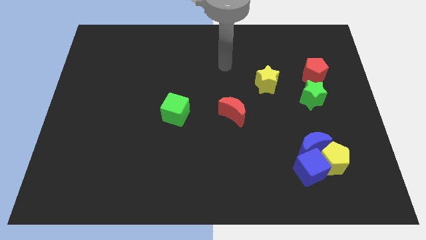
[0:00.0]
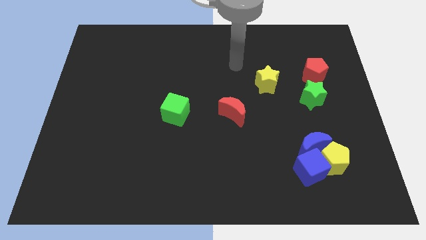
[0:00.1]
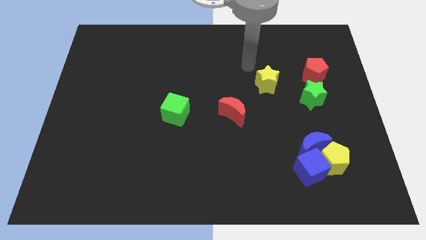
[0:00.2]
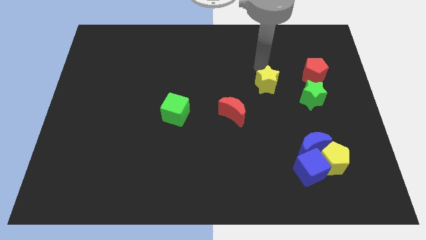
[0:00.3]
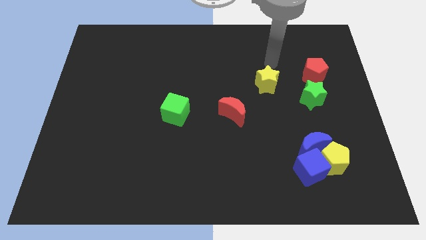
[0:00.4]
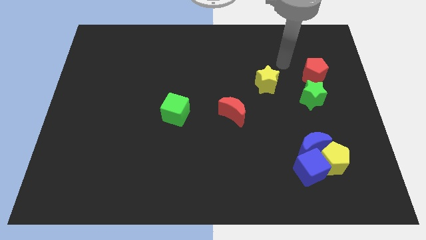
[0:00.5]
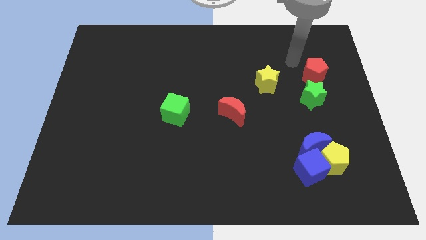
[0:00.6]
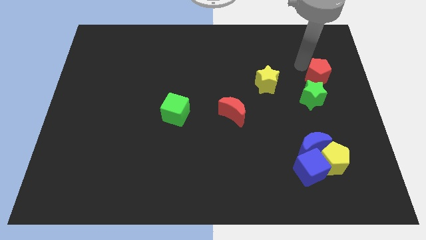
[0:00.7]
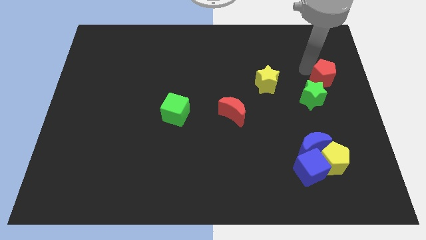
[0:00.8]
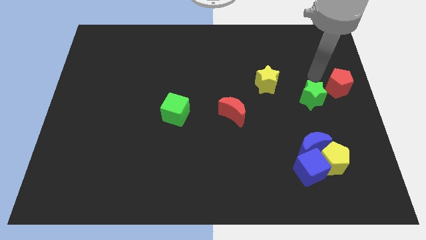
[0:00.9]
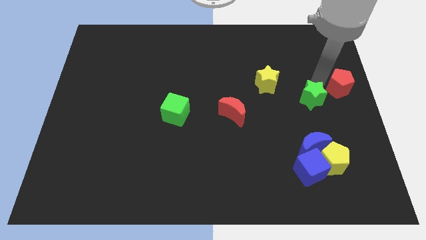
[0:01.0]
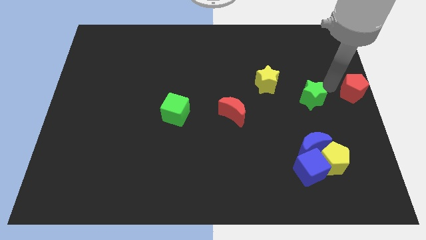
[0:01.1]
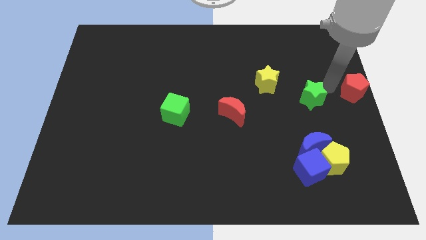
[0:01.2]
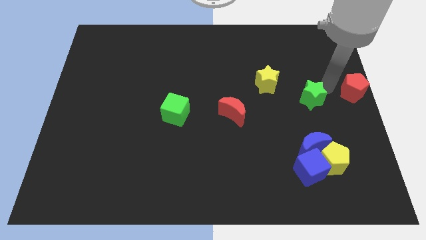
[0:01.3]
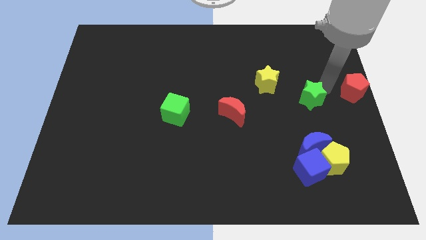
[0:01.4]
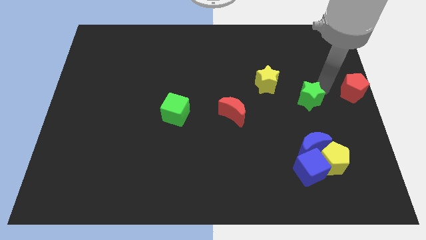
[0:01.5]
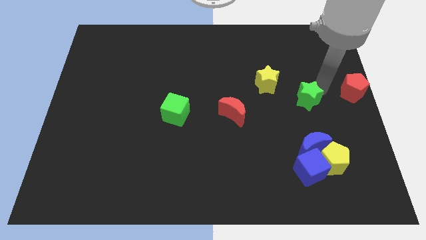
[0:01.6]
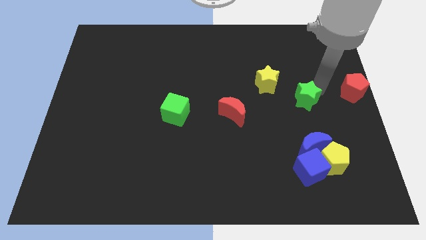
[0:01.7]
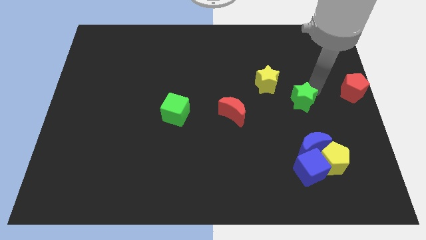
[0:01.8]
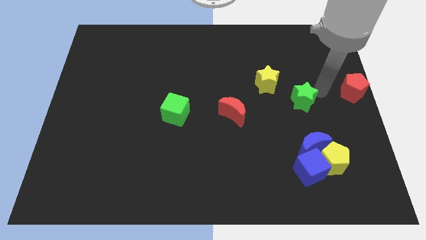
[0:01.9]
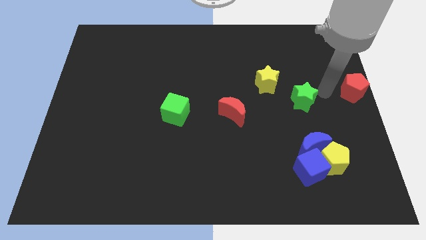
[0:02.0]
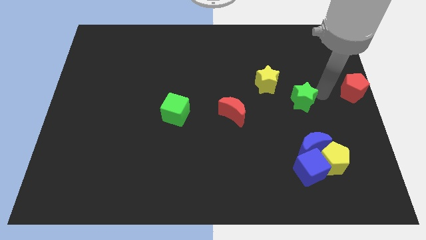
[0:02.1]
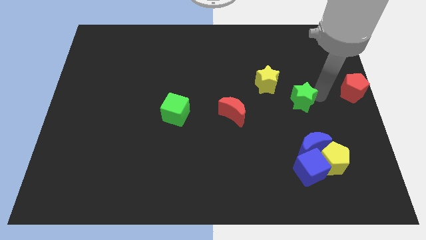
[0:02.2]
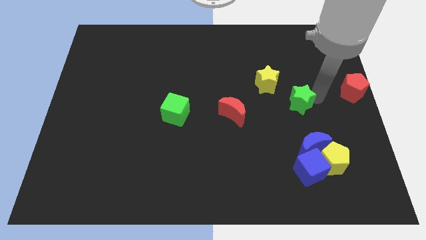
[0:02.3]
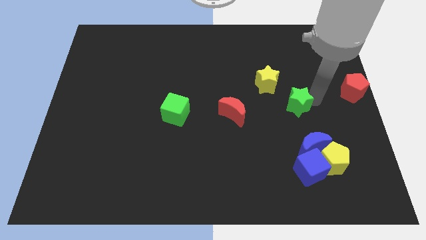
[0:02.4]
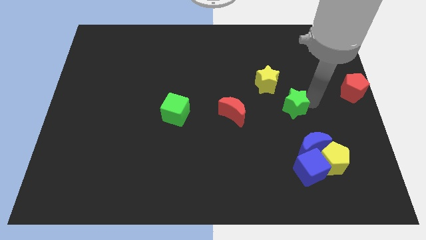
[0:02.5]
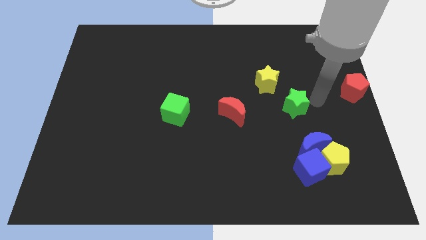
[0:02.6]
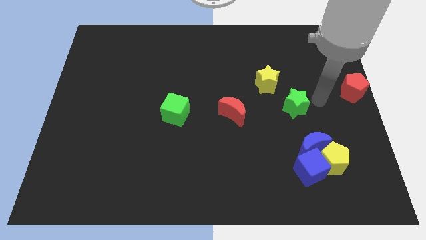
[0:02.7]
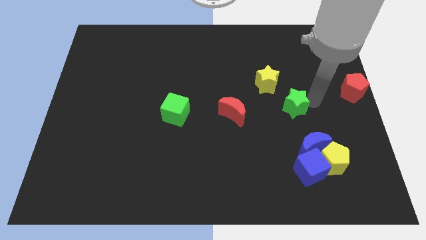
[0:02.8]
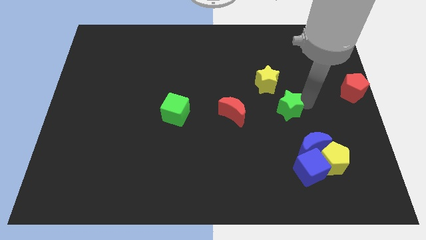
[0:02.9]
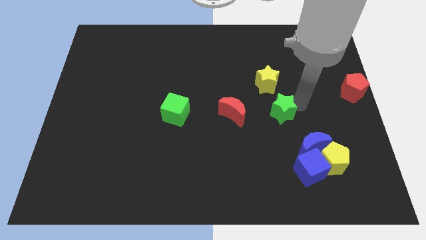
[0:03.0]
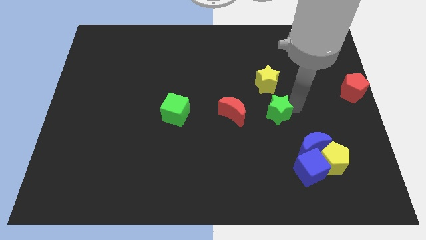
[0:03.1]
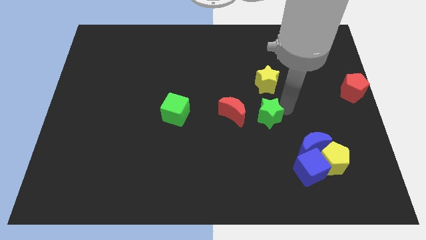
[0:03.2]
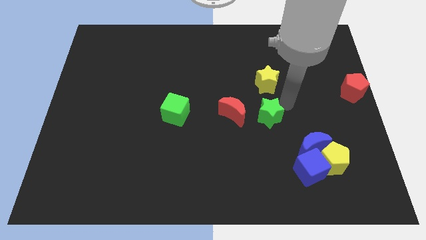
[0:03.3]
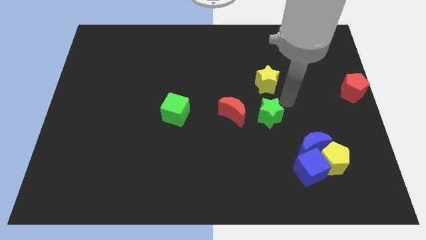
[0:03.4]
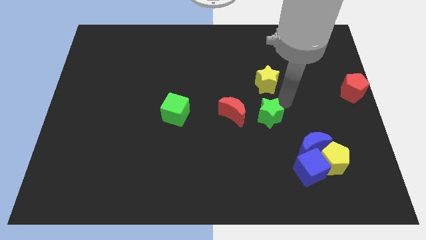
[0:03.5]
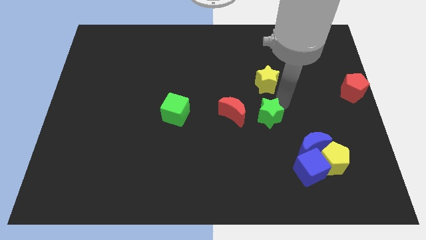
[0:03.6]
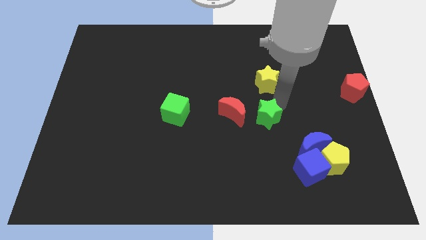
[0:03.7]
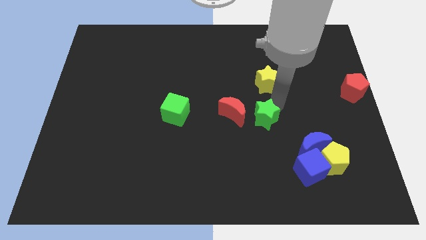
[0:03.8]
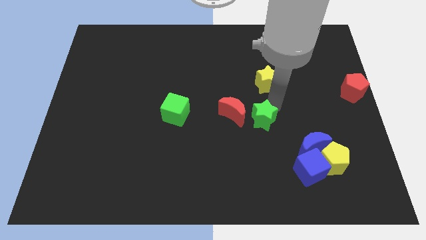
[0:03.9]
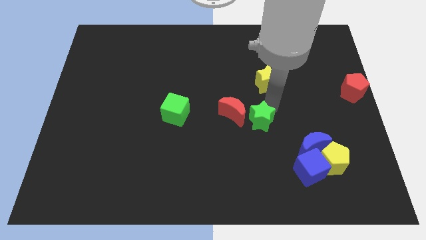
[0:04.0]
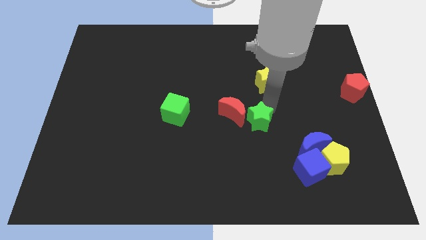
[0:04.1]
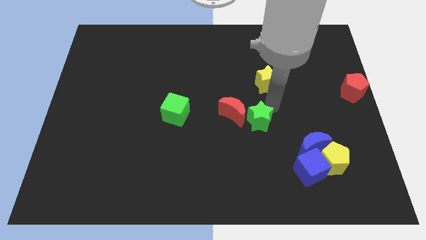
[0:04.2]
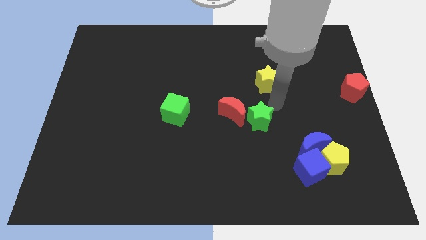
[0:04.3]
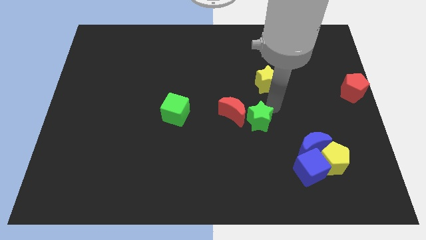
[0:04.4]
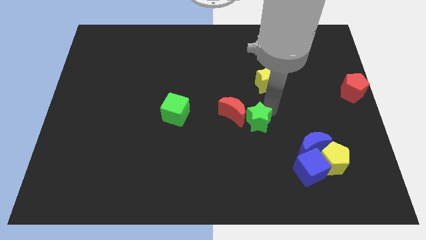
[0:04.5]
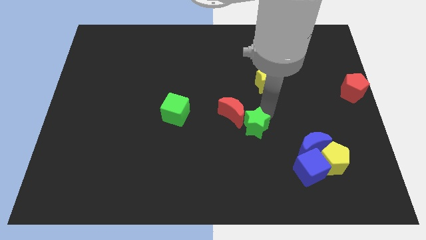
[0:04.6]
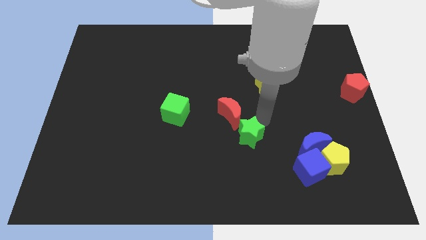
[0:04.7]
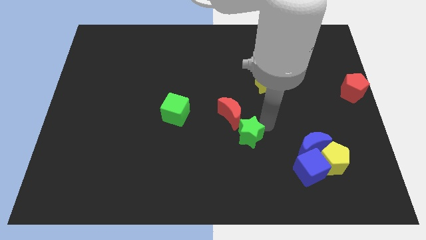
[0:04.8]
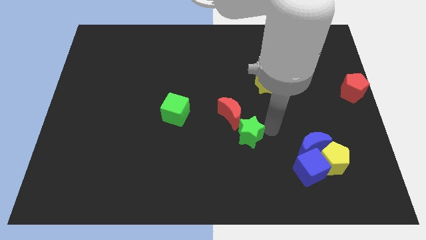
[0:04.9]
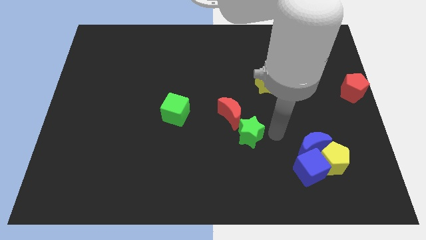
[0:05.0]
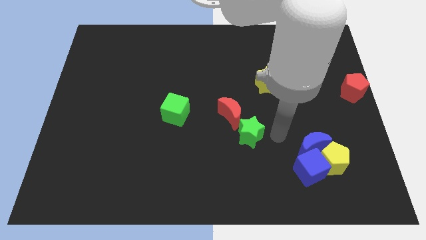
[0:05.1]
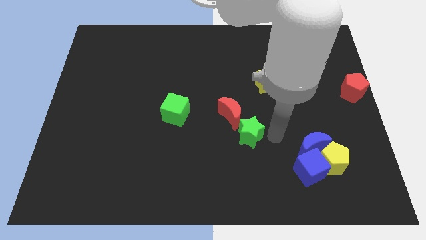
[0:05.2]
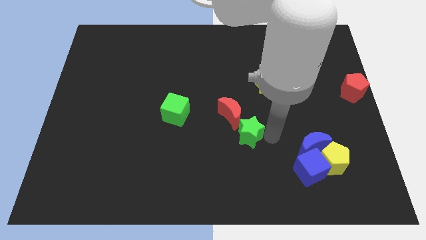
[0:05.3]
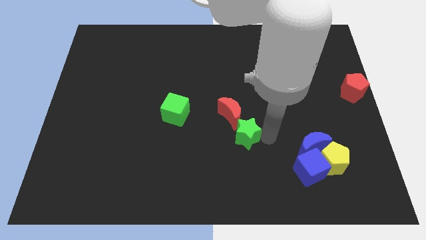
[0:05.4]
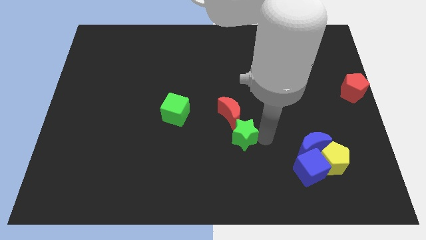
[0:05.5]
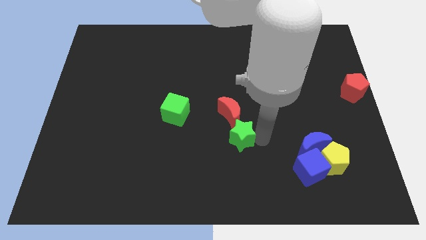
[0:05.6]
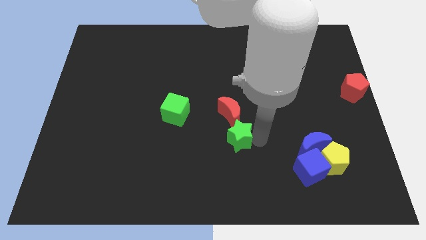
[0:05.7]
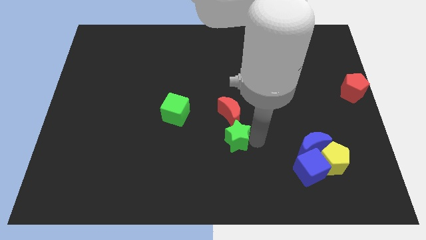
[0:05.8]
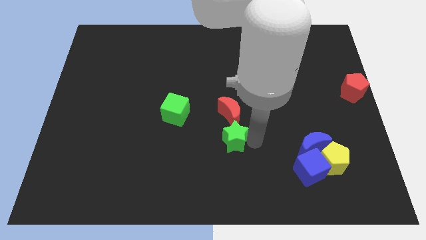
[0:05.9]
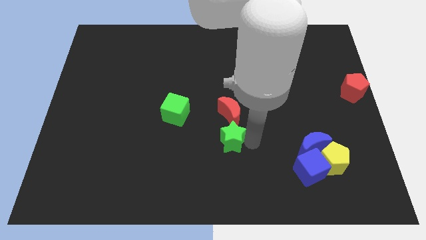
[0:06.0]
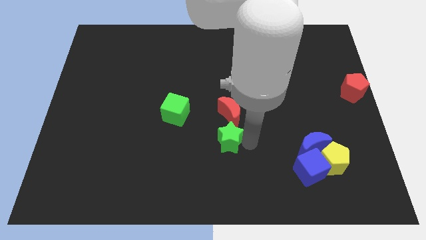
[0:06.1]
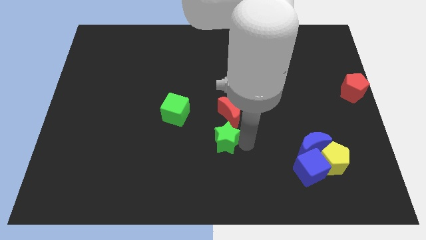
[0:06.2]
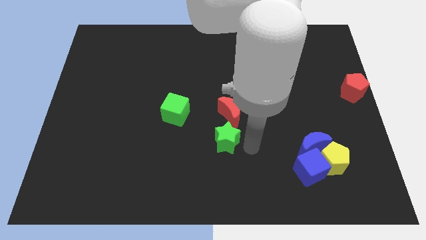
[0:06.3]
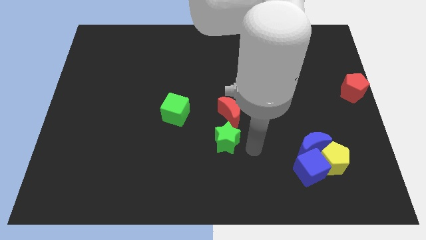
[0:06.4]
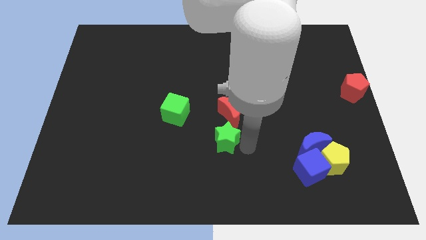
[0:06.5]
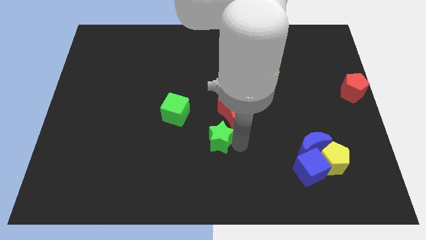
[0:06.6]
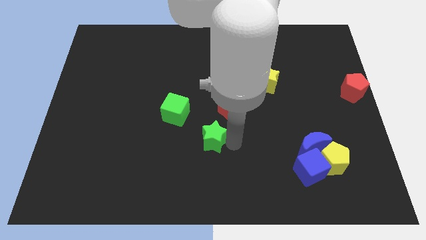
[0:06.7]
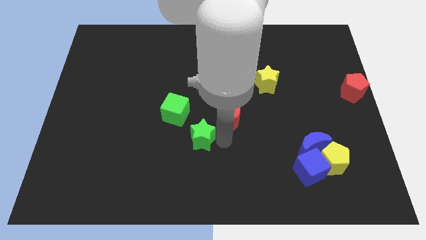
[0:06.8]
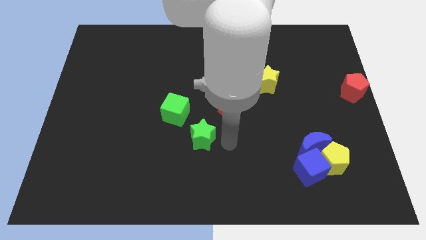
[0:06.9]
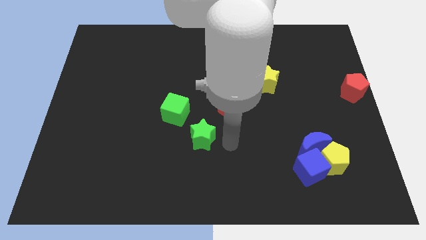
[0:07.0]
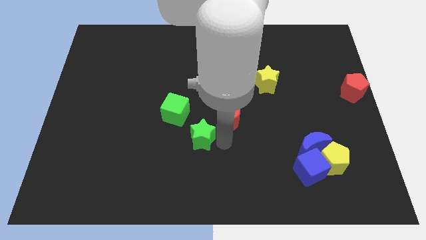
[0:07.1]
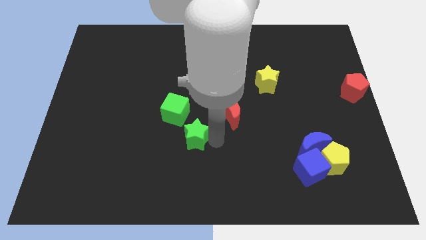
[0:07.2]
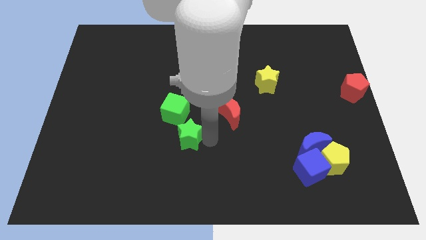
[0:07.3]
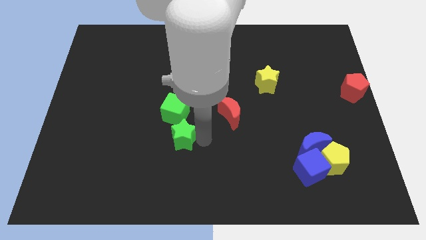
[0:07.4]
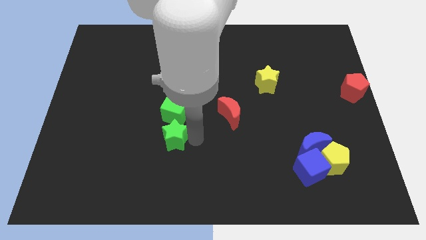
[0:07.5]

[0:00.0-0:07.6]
move the green star to the bottom left of the green cube
